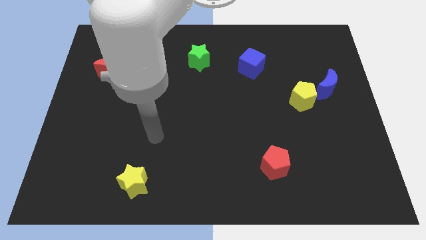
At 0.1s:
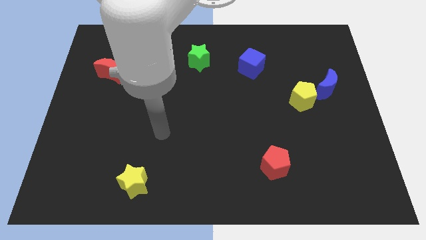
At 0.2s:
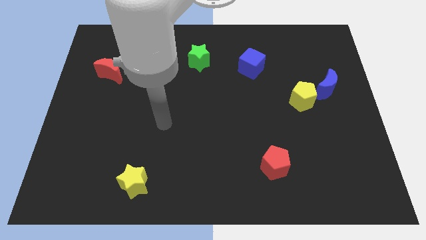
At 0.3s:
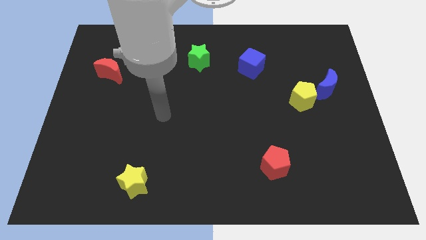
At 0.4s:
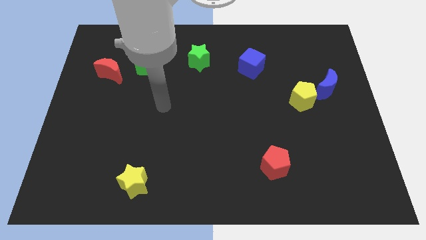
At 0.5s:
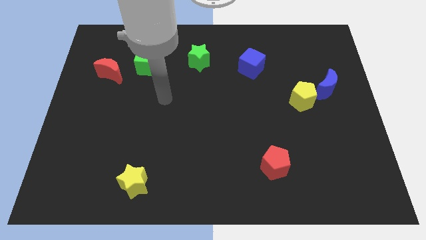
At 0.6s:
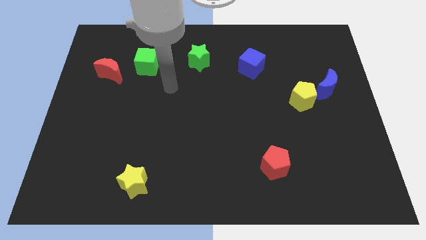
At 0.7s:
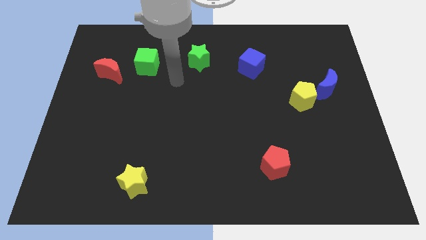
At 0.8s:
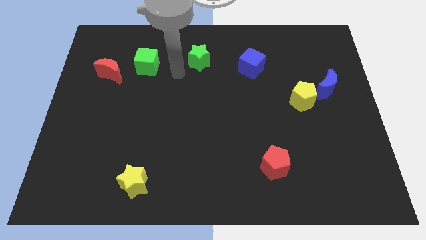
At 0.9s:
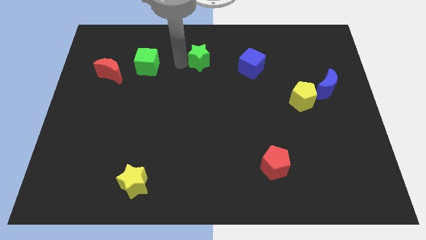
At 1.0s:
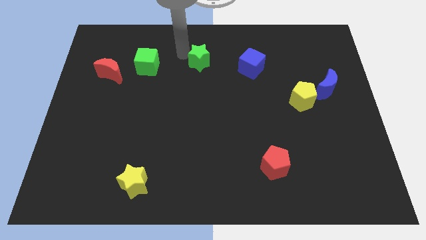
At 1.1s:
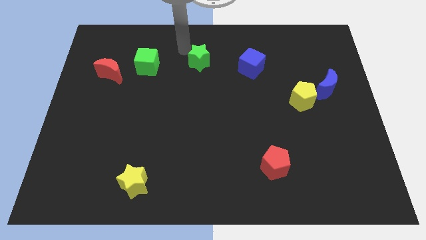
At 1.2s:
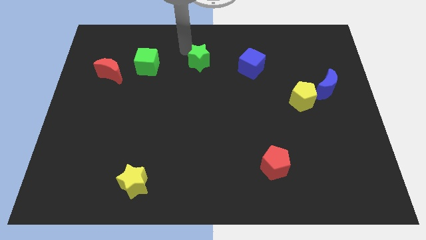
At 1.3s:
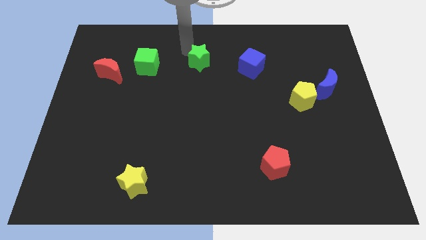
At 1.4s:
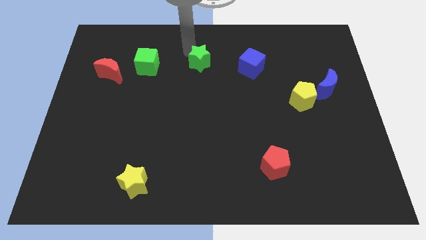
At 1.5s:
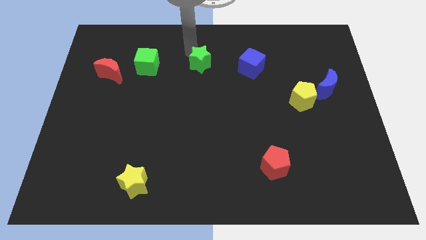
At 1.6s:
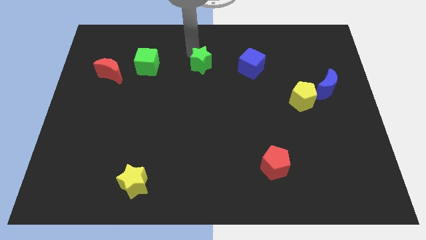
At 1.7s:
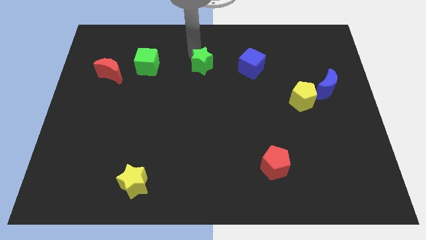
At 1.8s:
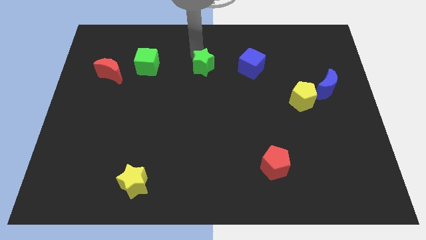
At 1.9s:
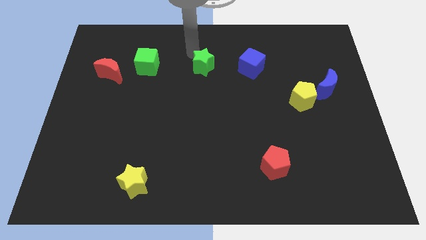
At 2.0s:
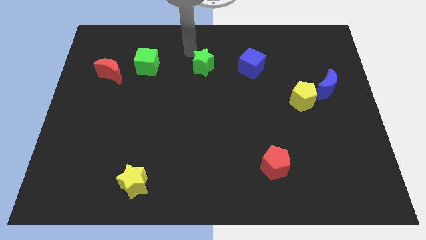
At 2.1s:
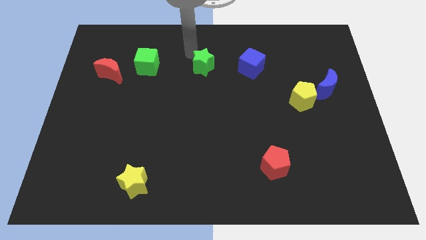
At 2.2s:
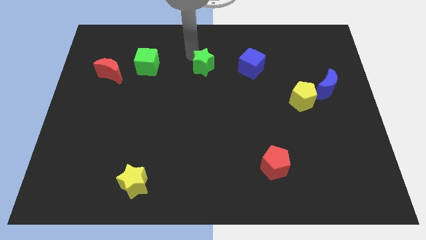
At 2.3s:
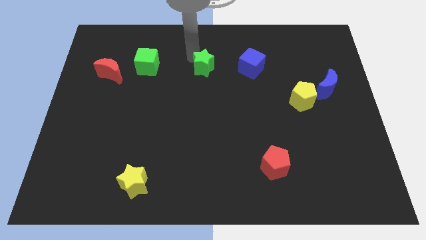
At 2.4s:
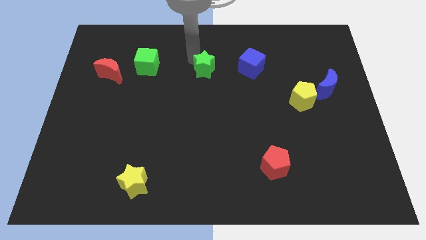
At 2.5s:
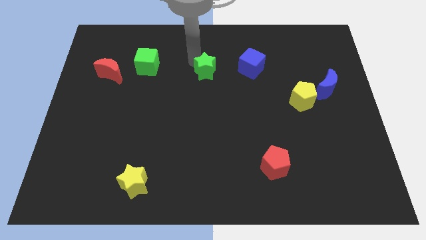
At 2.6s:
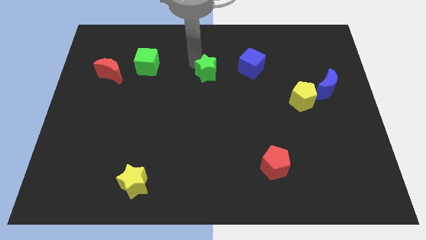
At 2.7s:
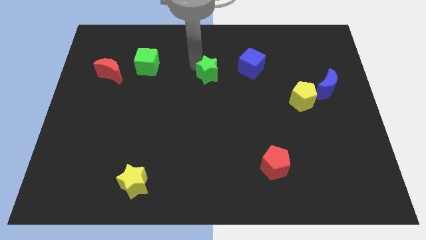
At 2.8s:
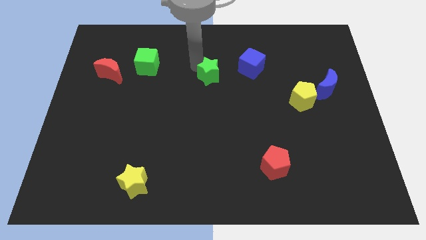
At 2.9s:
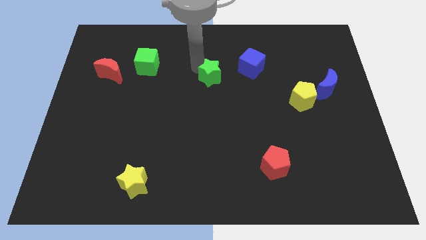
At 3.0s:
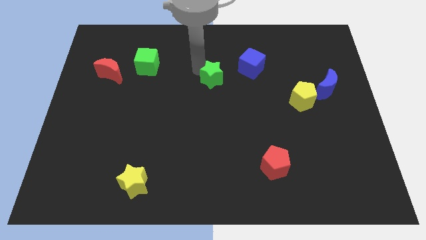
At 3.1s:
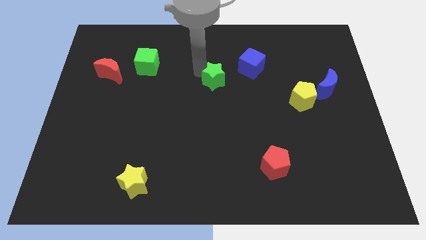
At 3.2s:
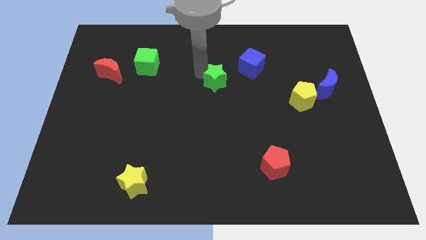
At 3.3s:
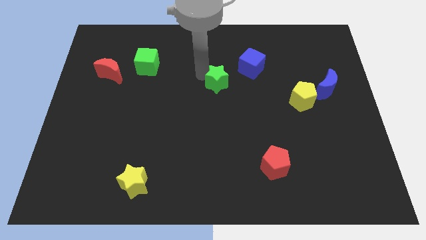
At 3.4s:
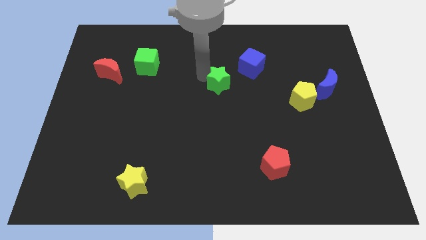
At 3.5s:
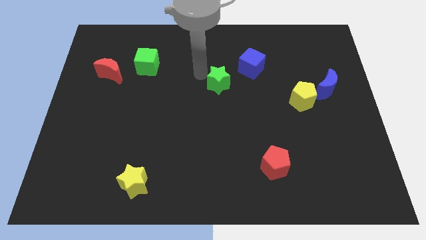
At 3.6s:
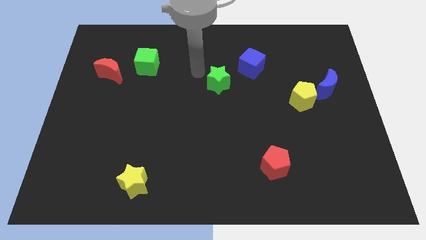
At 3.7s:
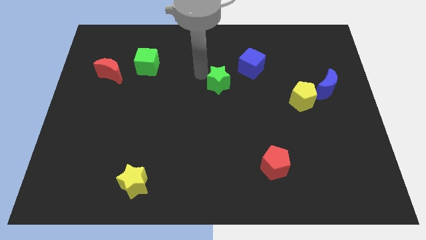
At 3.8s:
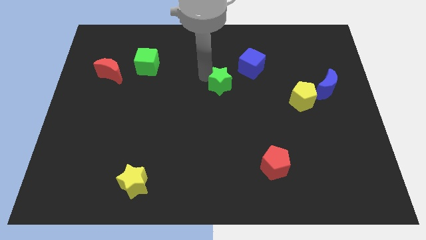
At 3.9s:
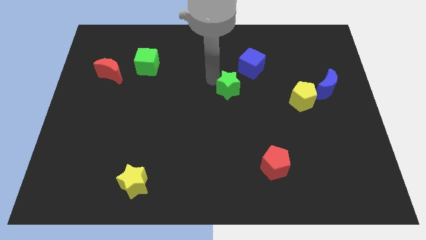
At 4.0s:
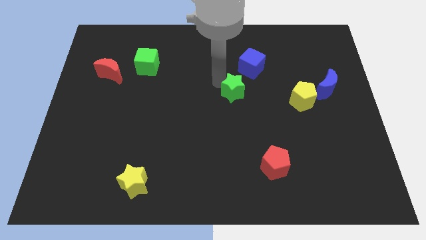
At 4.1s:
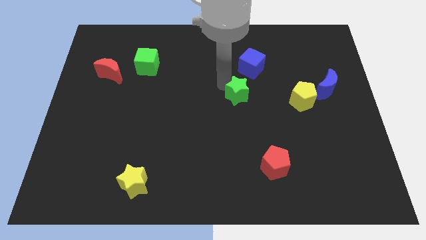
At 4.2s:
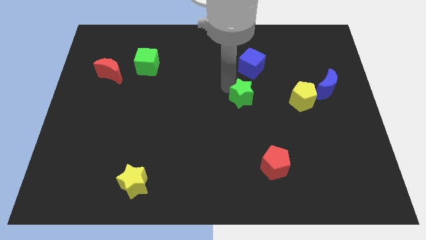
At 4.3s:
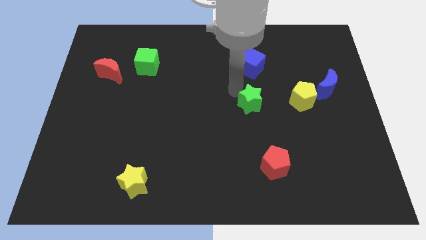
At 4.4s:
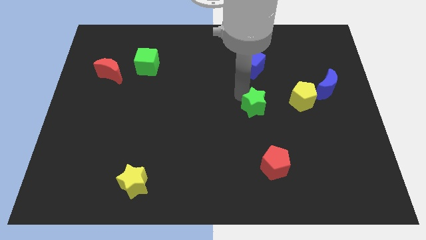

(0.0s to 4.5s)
move the green star down and then to the right

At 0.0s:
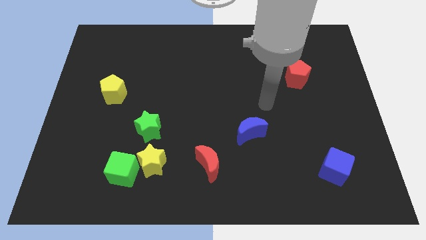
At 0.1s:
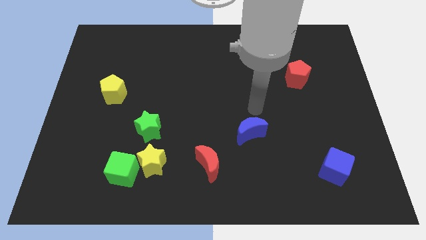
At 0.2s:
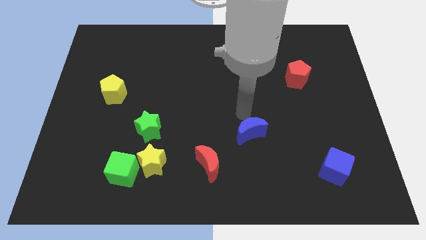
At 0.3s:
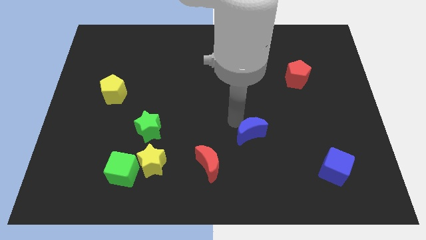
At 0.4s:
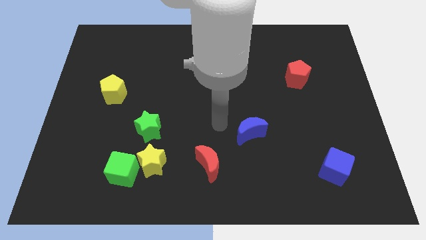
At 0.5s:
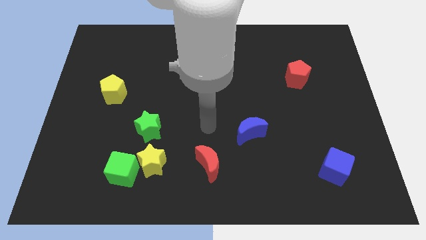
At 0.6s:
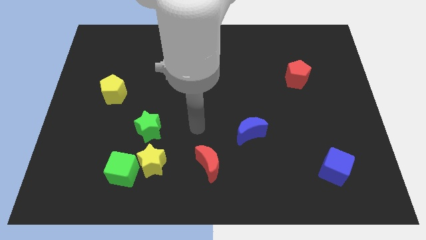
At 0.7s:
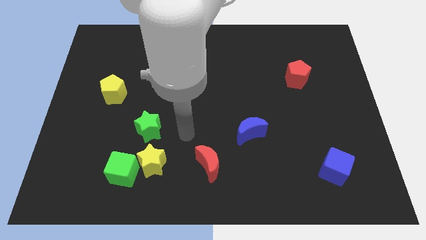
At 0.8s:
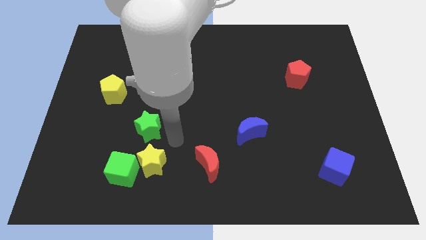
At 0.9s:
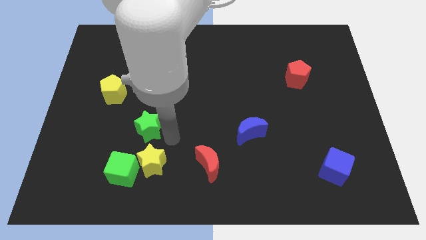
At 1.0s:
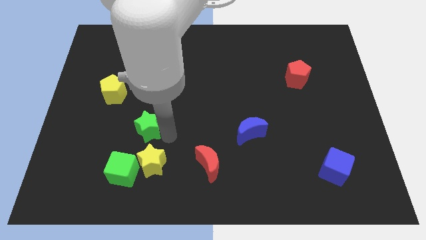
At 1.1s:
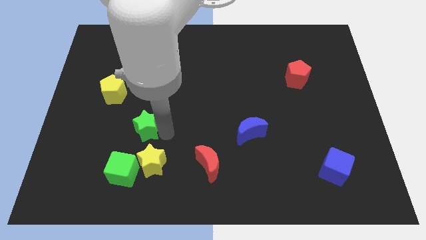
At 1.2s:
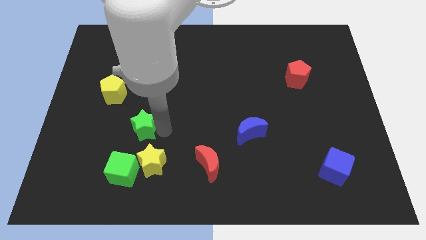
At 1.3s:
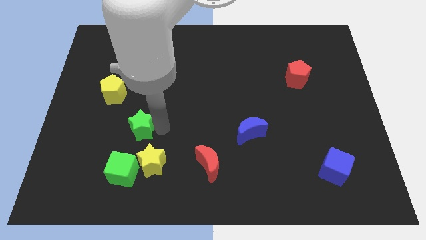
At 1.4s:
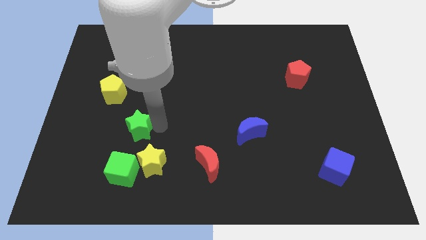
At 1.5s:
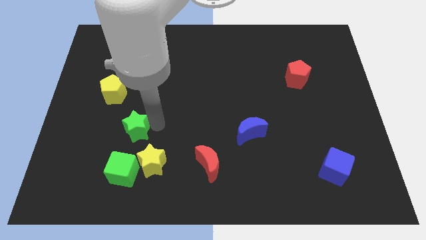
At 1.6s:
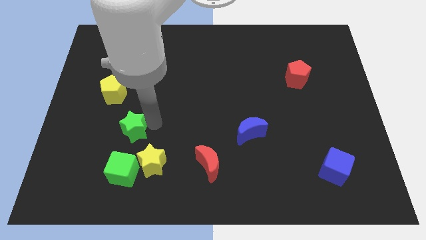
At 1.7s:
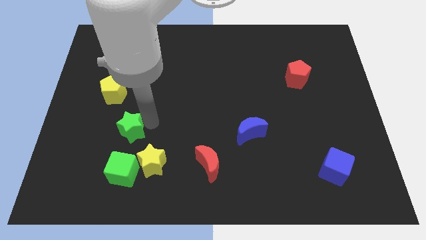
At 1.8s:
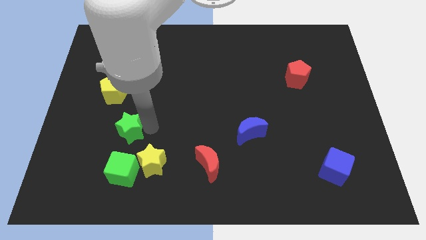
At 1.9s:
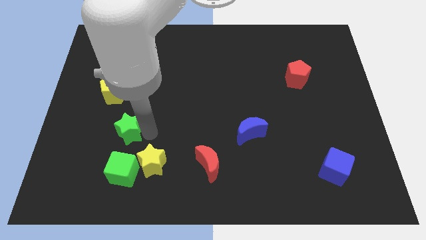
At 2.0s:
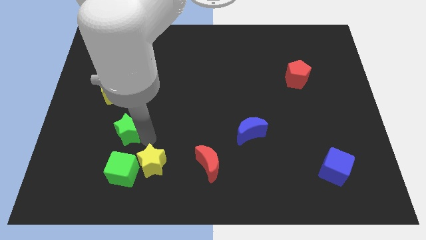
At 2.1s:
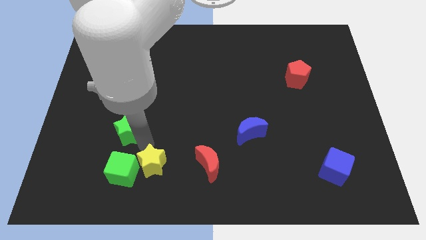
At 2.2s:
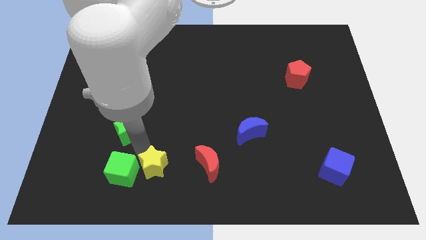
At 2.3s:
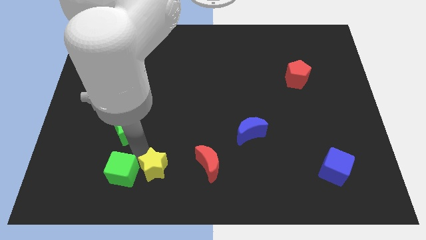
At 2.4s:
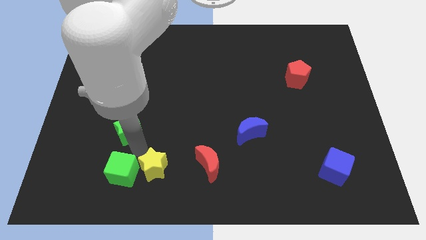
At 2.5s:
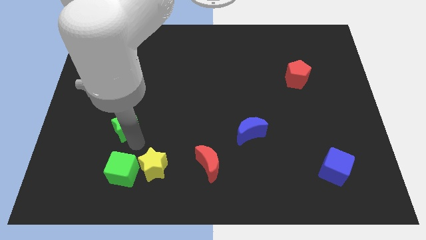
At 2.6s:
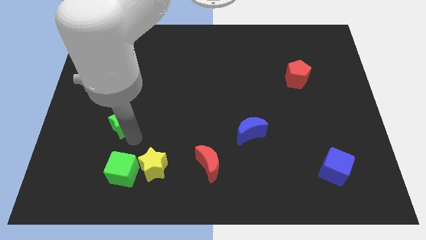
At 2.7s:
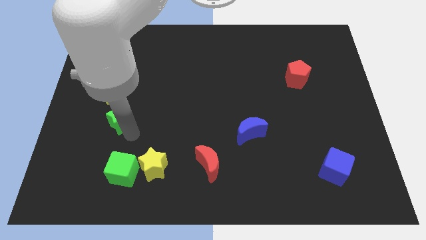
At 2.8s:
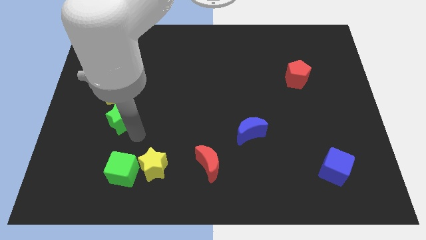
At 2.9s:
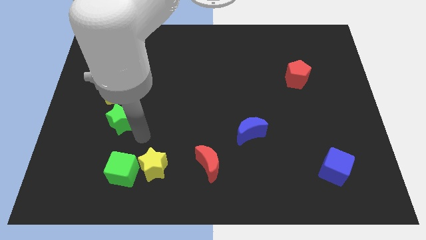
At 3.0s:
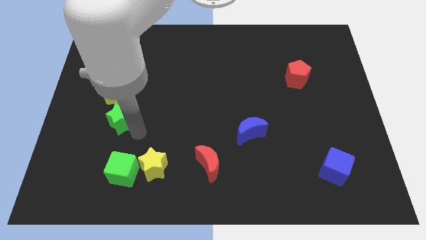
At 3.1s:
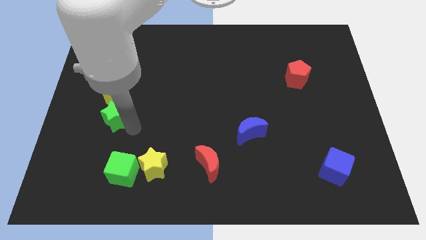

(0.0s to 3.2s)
slide the green star diagonally upwards and to the left a little
